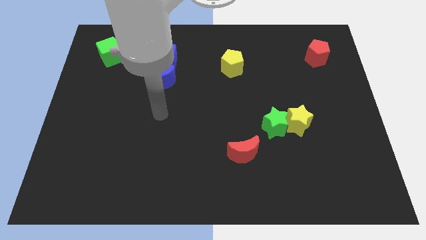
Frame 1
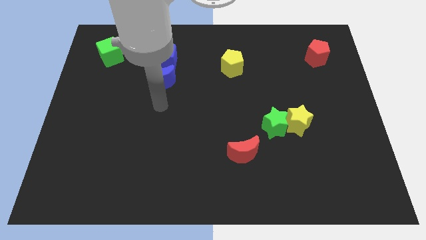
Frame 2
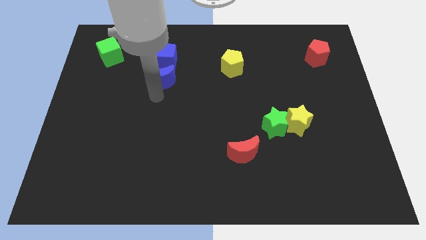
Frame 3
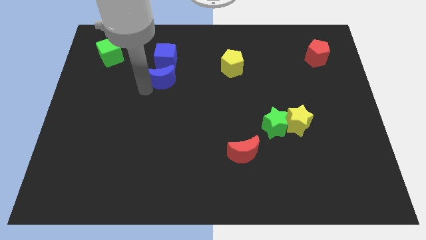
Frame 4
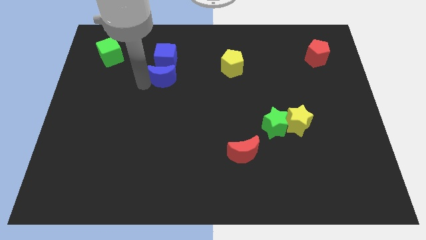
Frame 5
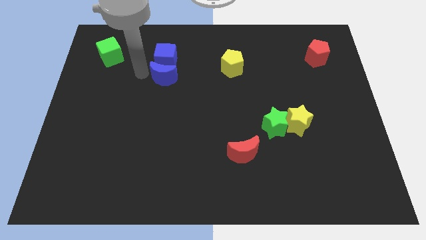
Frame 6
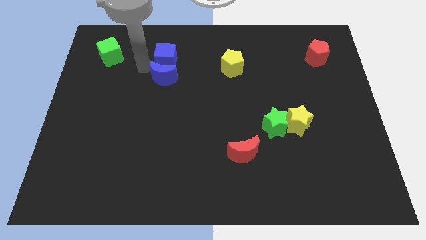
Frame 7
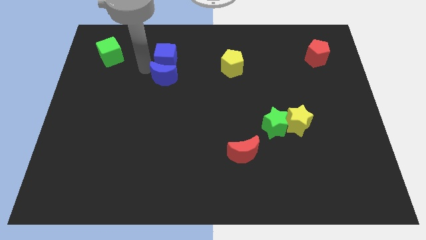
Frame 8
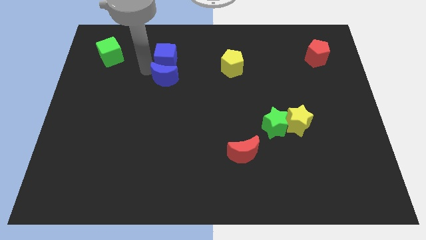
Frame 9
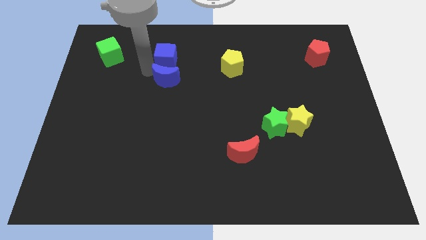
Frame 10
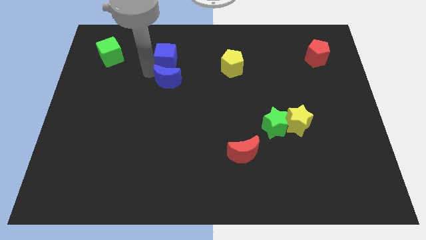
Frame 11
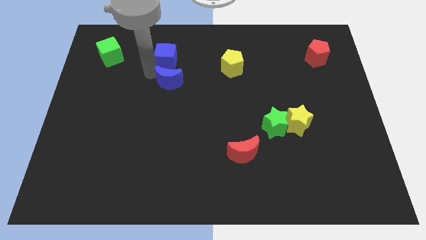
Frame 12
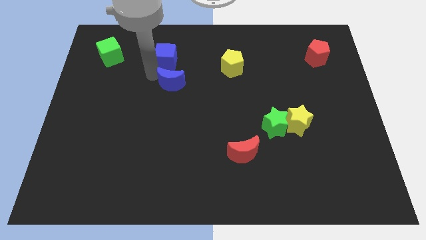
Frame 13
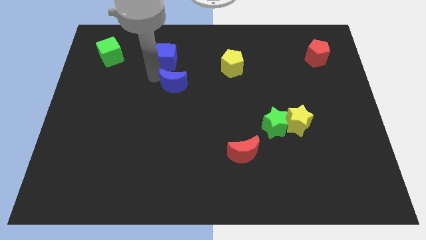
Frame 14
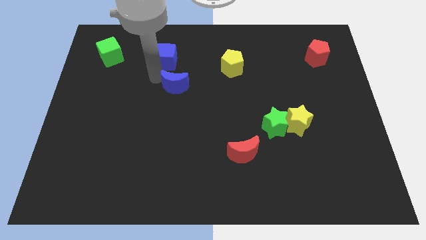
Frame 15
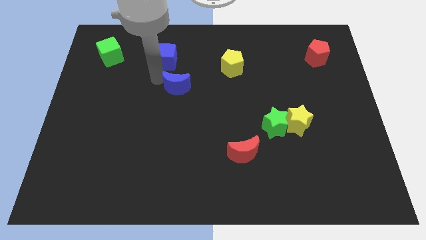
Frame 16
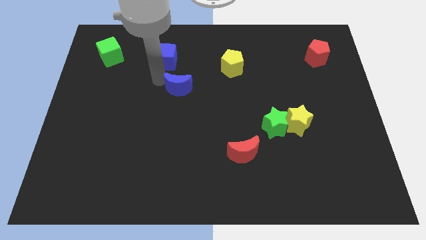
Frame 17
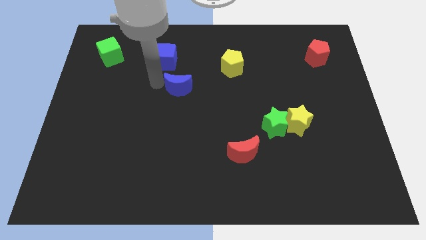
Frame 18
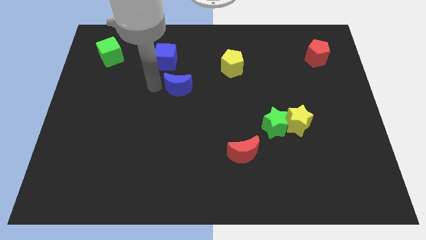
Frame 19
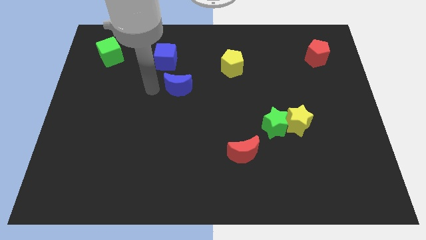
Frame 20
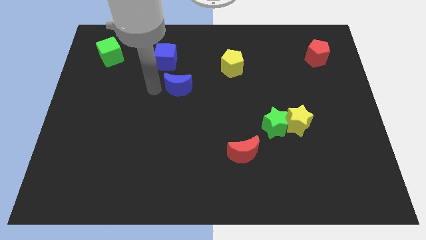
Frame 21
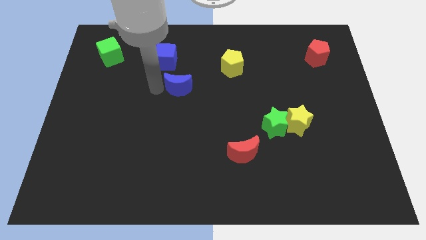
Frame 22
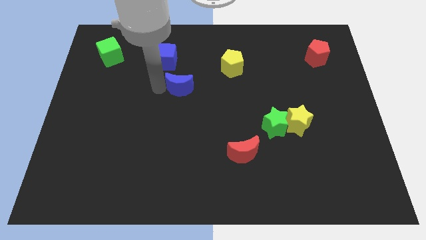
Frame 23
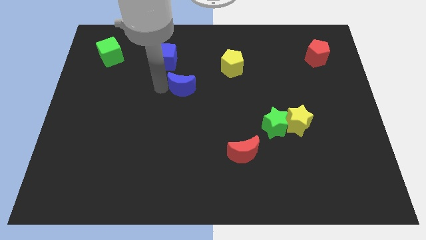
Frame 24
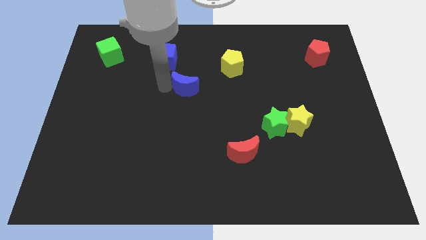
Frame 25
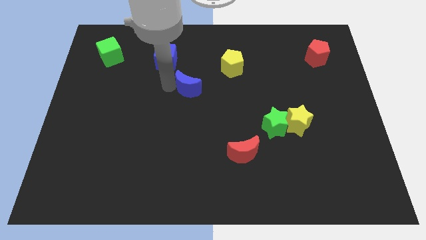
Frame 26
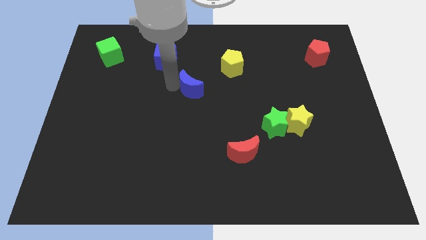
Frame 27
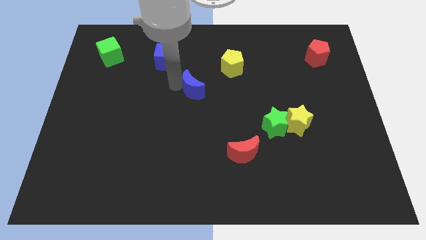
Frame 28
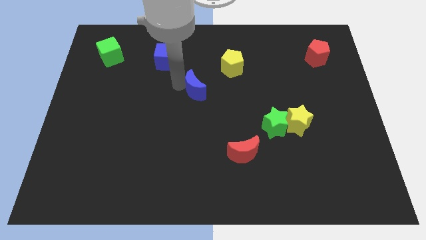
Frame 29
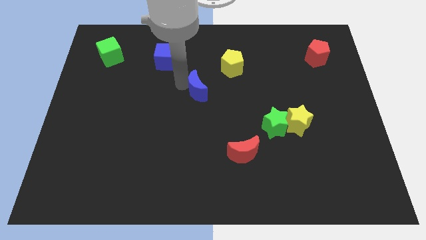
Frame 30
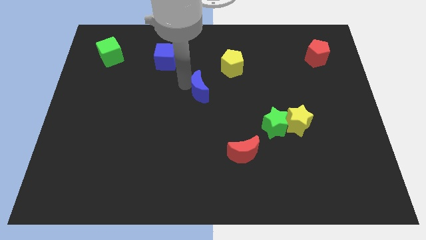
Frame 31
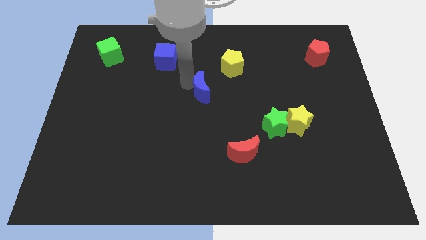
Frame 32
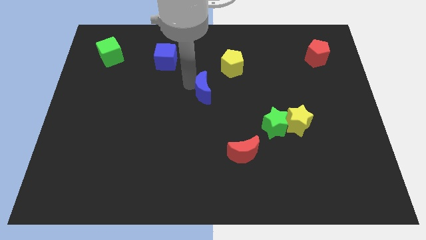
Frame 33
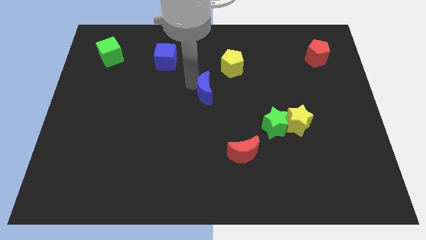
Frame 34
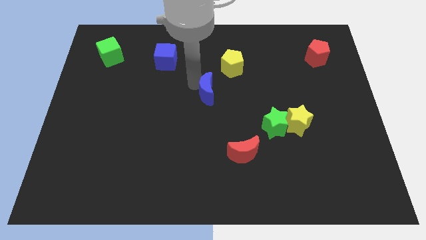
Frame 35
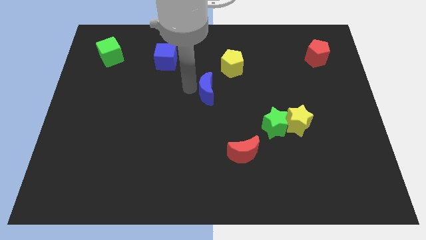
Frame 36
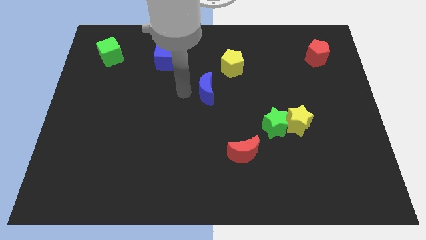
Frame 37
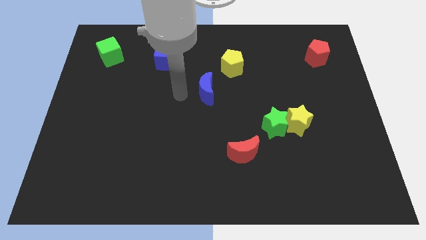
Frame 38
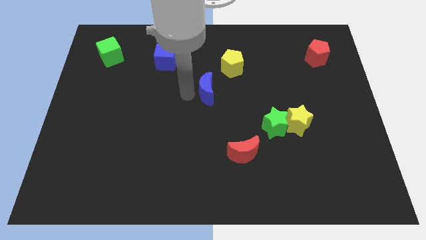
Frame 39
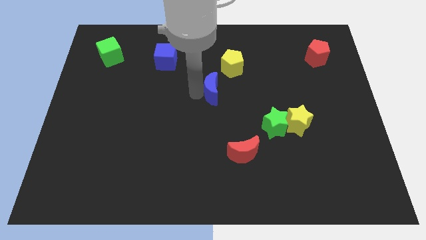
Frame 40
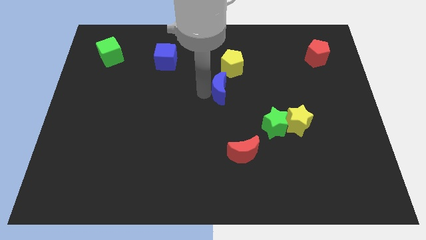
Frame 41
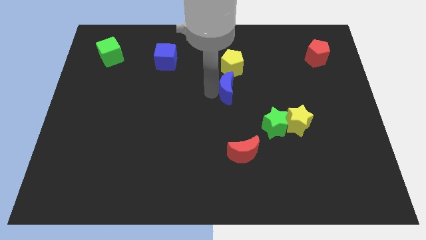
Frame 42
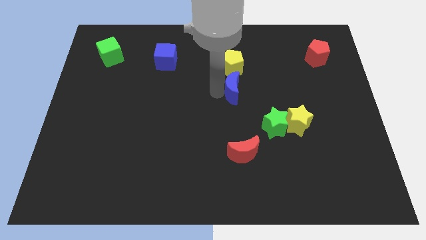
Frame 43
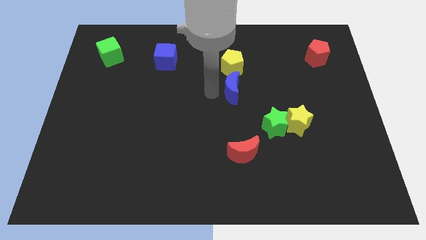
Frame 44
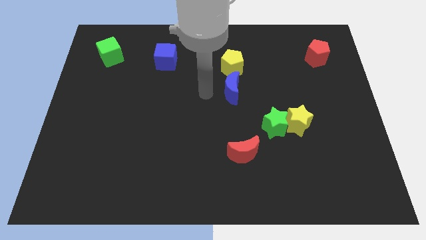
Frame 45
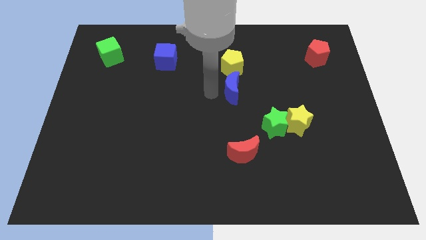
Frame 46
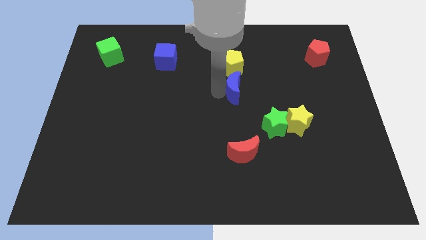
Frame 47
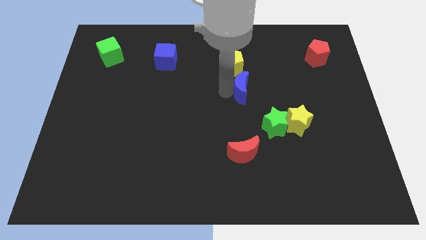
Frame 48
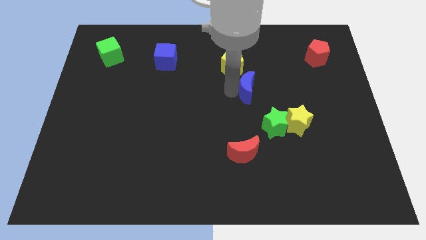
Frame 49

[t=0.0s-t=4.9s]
push the blue moon to the right

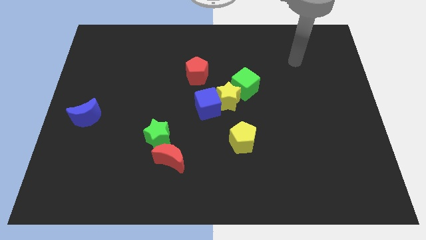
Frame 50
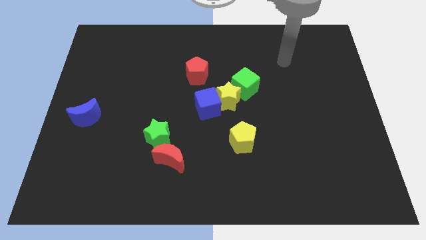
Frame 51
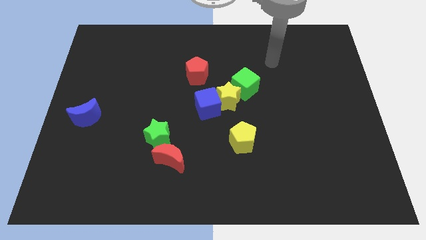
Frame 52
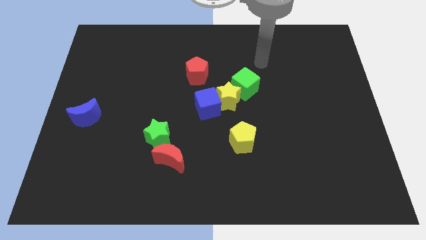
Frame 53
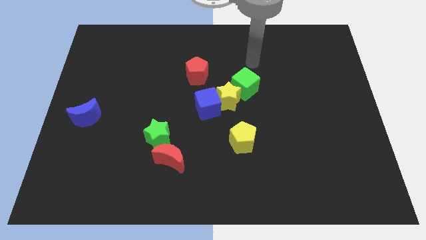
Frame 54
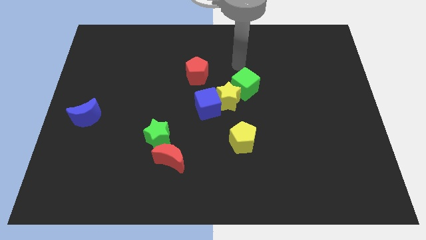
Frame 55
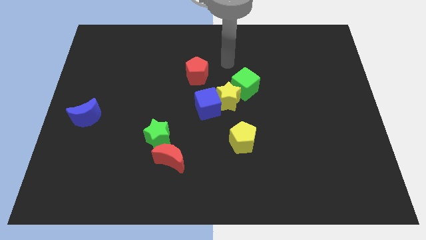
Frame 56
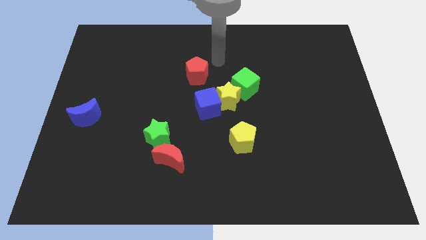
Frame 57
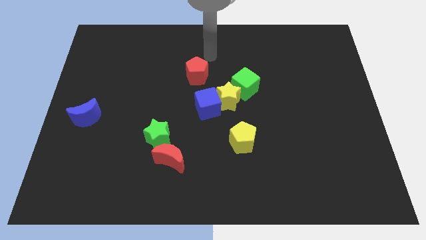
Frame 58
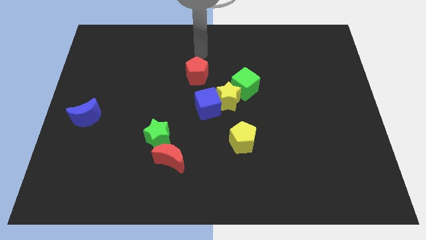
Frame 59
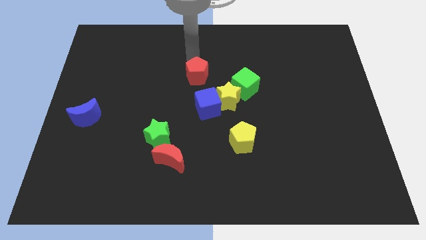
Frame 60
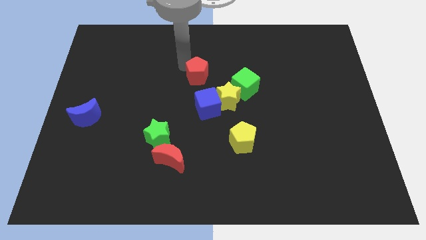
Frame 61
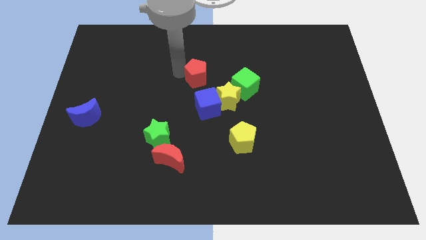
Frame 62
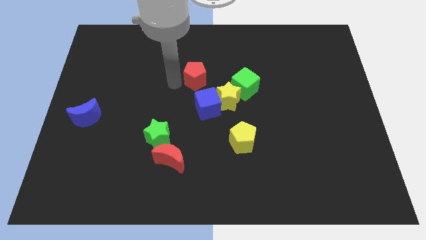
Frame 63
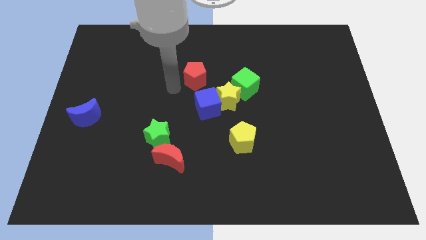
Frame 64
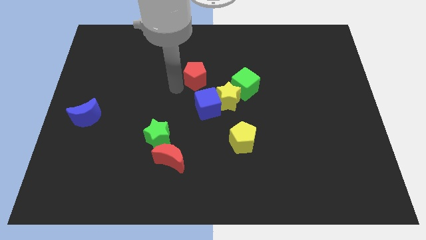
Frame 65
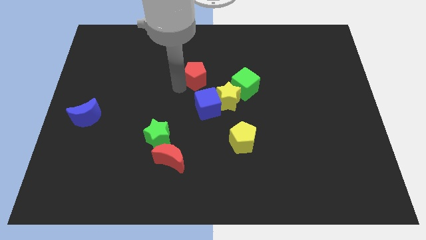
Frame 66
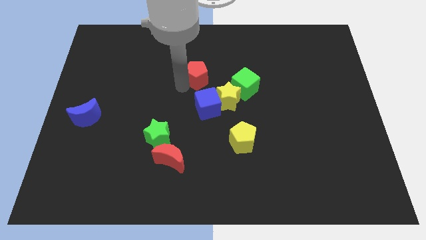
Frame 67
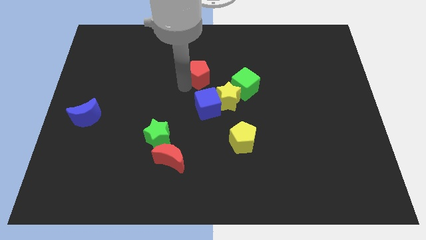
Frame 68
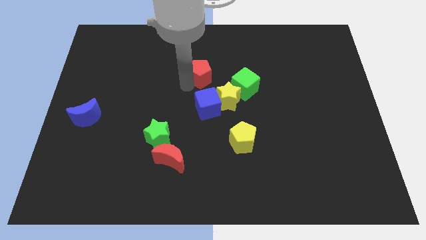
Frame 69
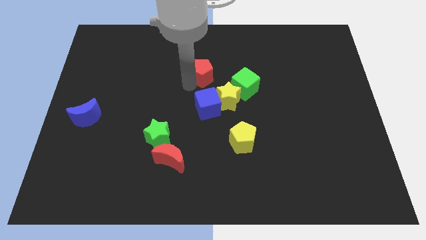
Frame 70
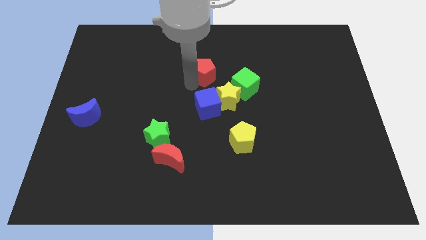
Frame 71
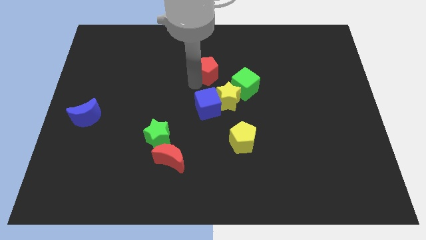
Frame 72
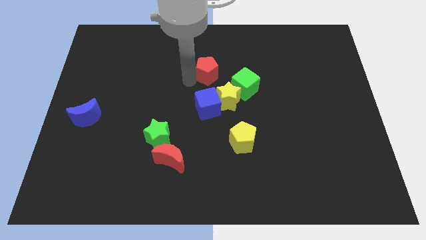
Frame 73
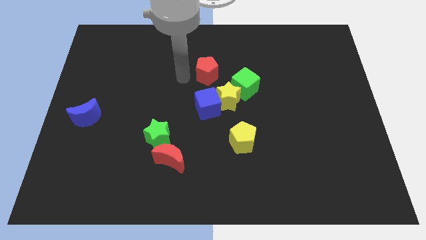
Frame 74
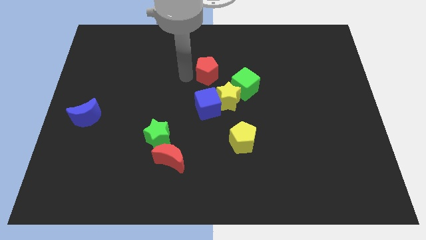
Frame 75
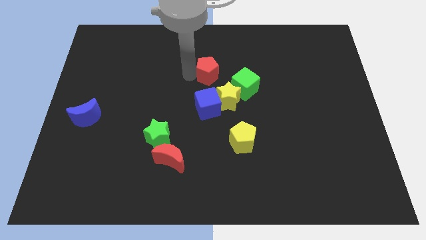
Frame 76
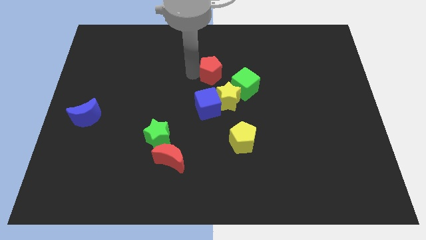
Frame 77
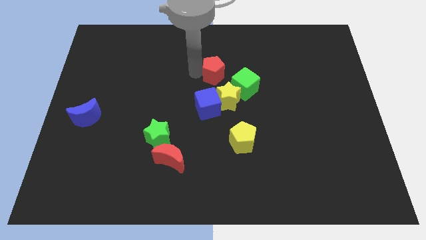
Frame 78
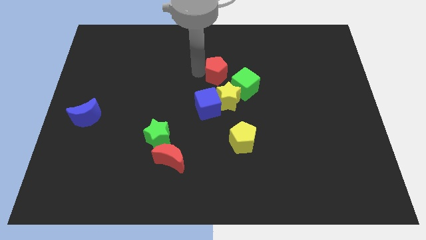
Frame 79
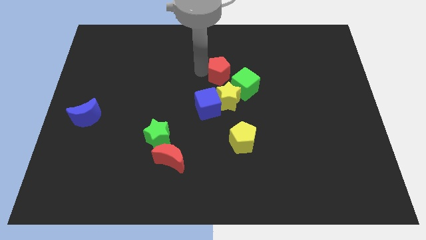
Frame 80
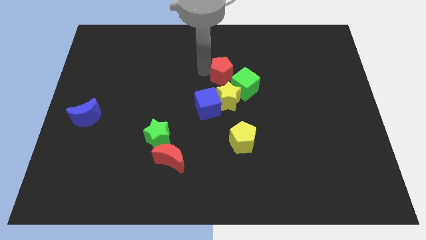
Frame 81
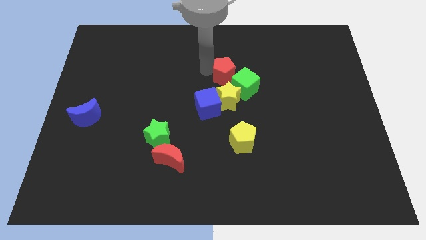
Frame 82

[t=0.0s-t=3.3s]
slightly push the red pentagon right
